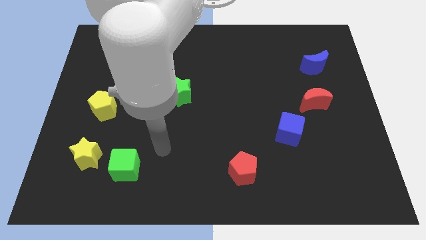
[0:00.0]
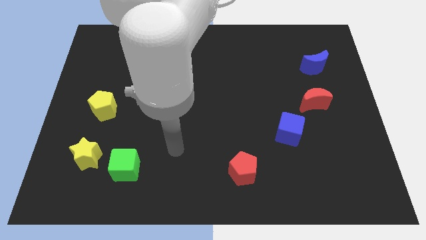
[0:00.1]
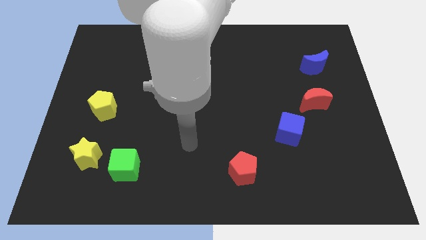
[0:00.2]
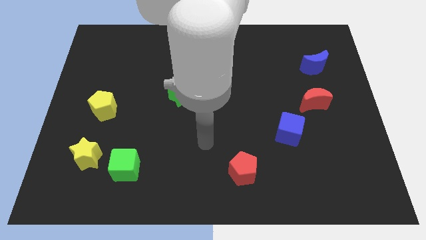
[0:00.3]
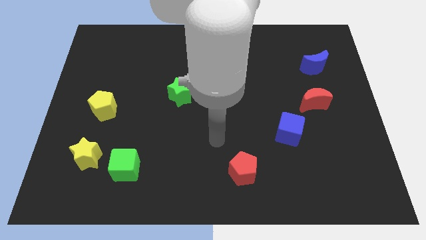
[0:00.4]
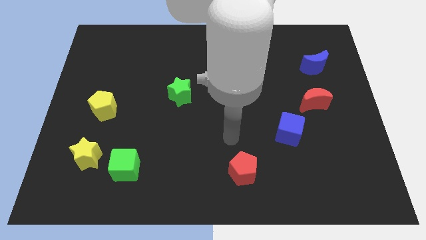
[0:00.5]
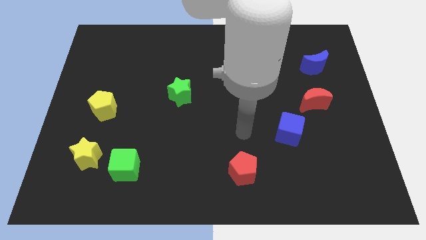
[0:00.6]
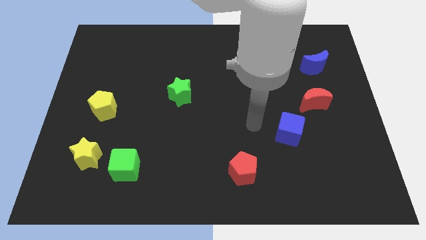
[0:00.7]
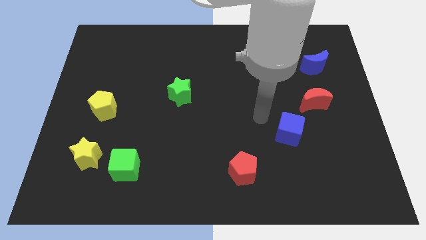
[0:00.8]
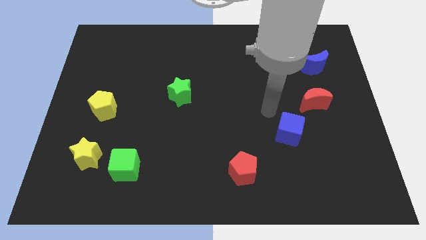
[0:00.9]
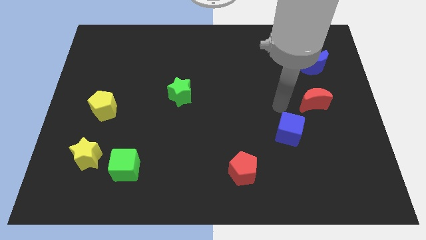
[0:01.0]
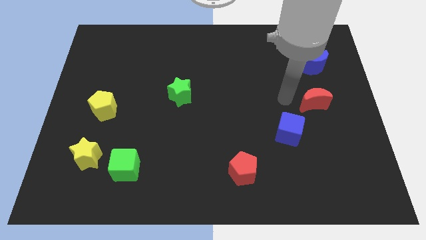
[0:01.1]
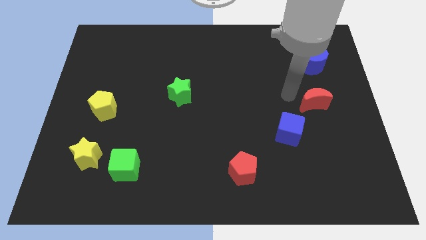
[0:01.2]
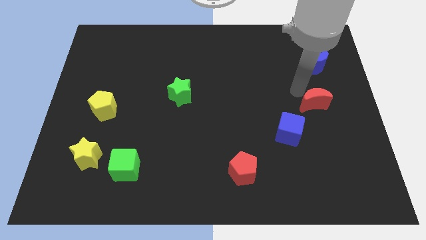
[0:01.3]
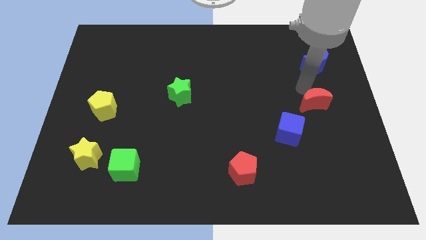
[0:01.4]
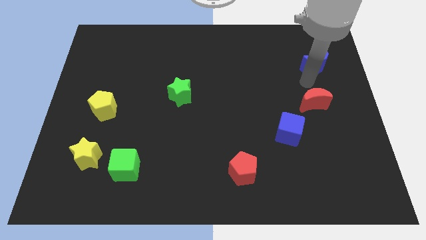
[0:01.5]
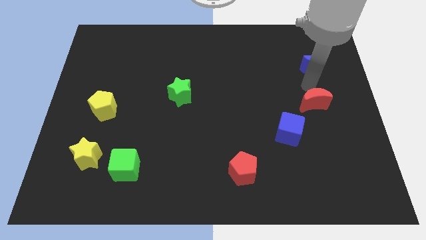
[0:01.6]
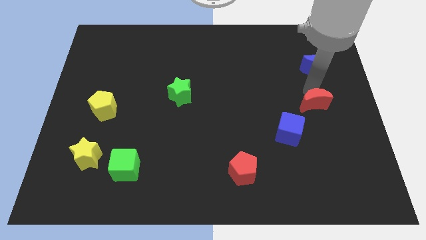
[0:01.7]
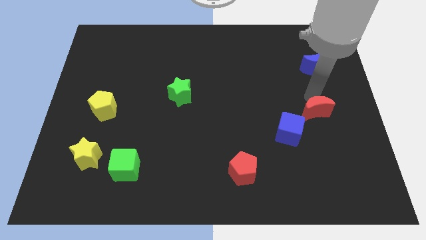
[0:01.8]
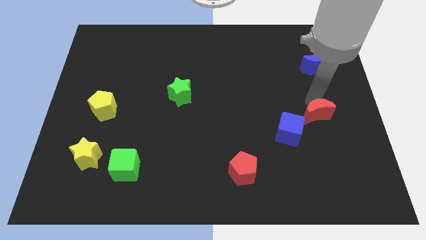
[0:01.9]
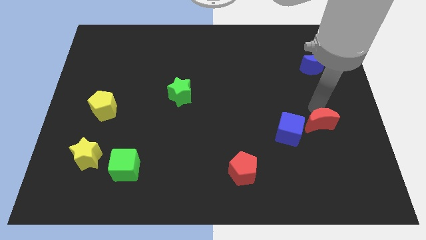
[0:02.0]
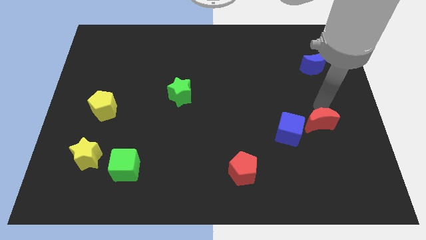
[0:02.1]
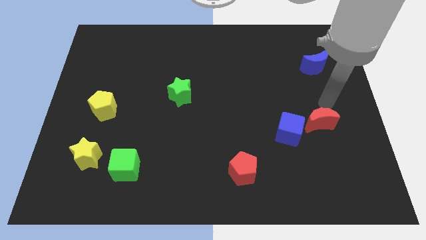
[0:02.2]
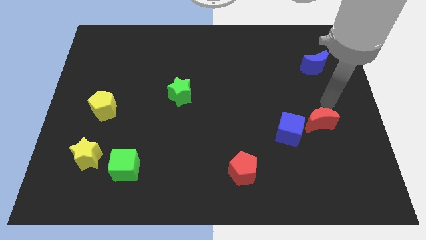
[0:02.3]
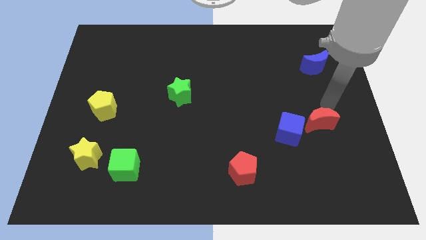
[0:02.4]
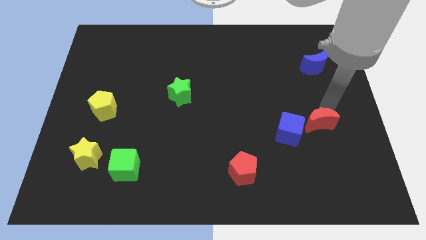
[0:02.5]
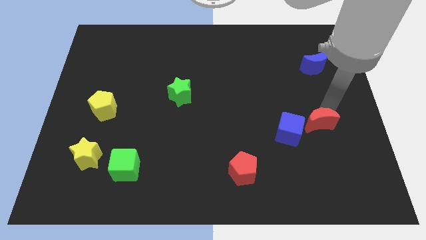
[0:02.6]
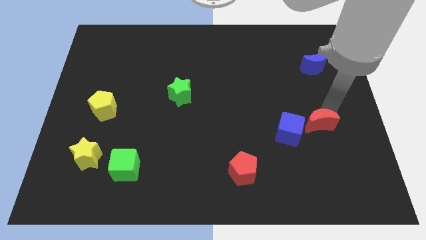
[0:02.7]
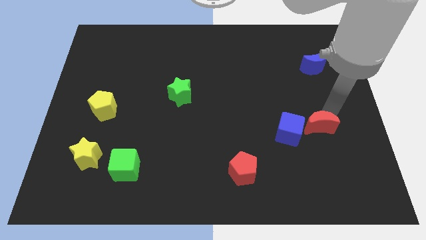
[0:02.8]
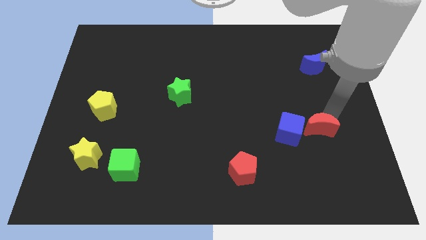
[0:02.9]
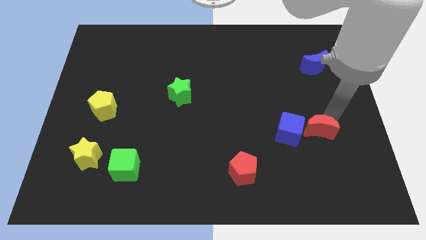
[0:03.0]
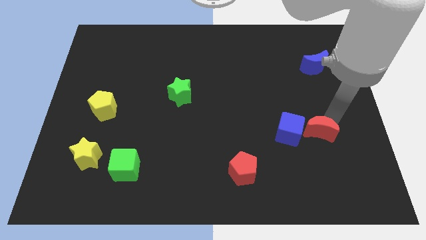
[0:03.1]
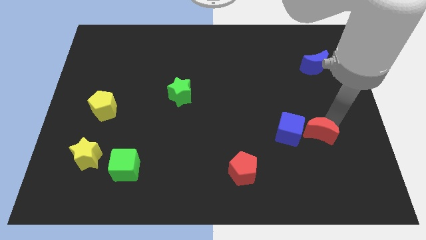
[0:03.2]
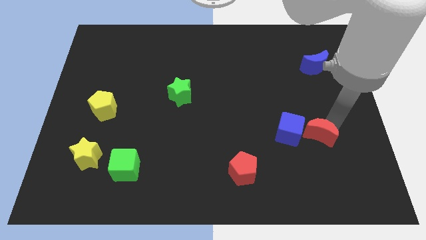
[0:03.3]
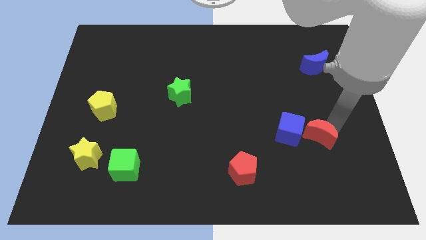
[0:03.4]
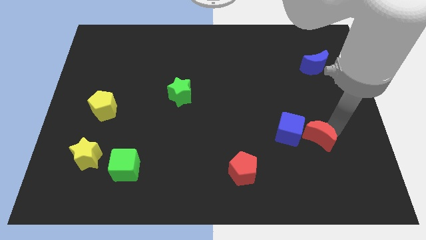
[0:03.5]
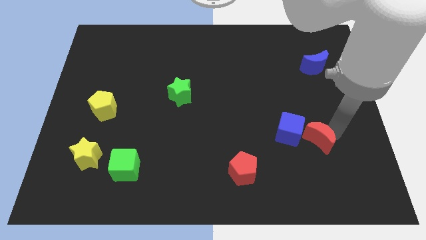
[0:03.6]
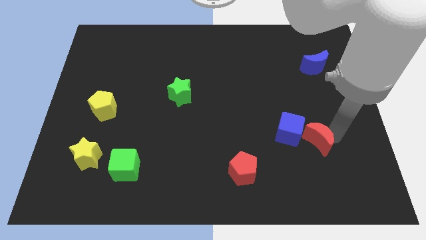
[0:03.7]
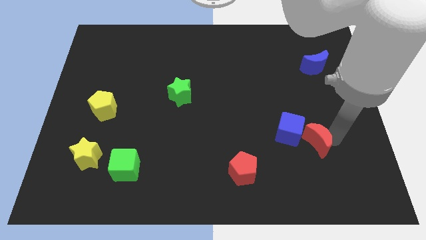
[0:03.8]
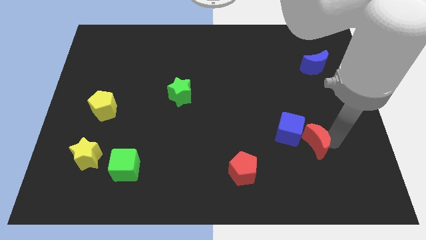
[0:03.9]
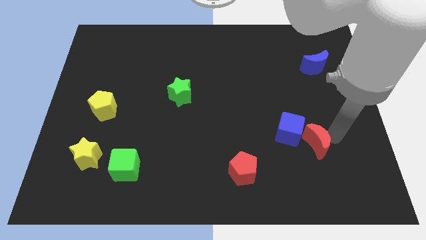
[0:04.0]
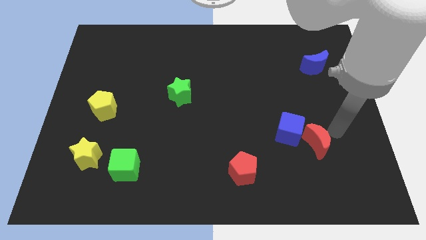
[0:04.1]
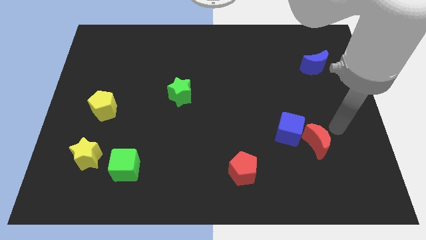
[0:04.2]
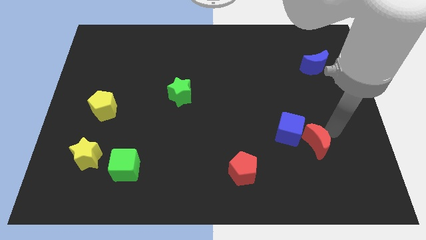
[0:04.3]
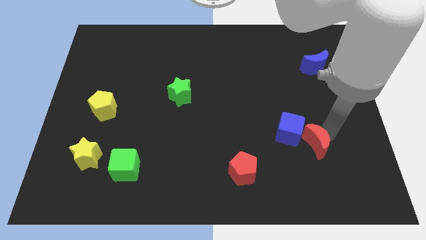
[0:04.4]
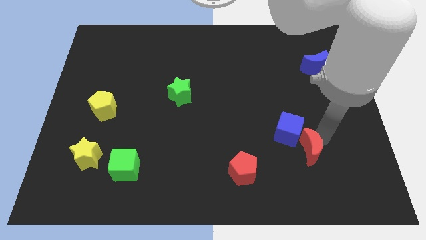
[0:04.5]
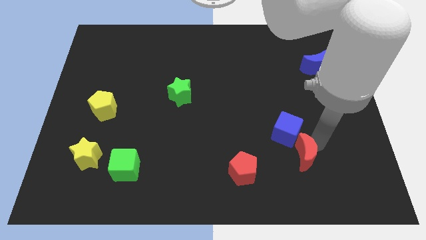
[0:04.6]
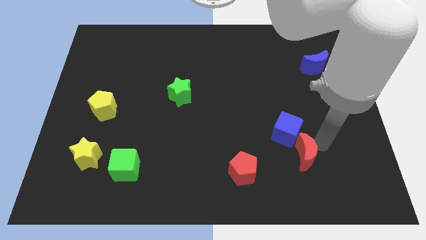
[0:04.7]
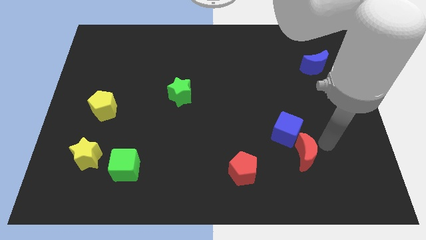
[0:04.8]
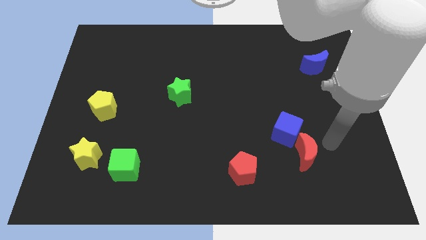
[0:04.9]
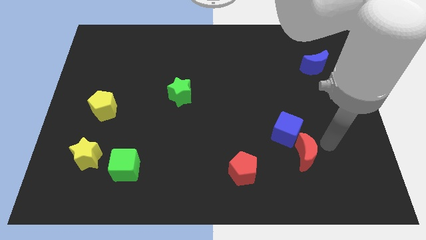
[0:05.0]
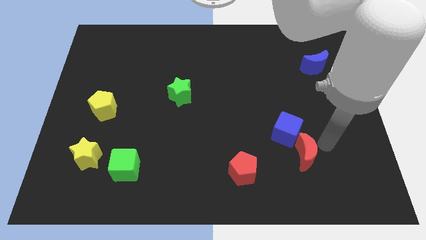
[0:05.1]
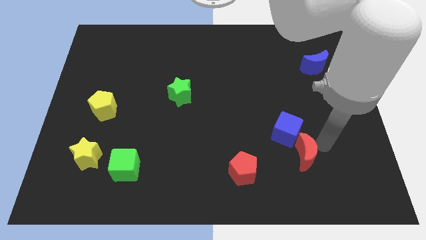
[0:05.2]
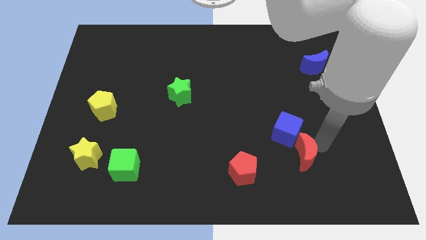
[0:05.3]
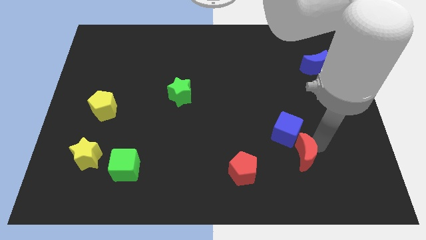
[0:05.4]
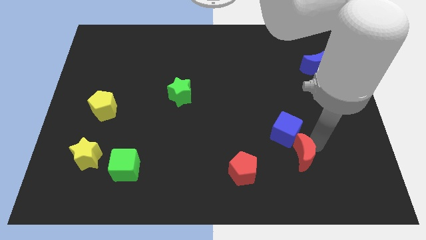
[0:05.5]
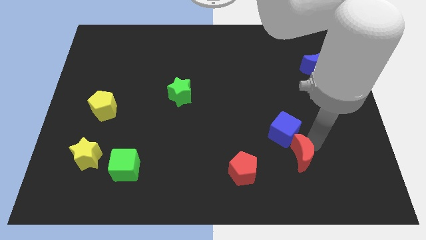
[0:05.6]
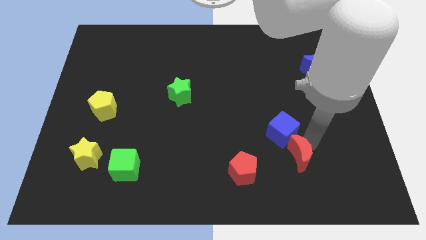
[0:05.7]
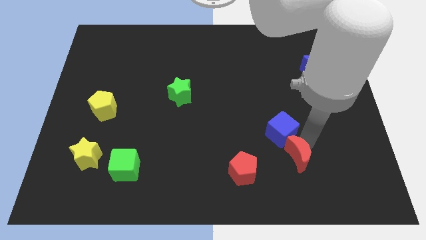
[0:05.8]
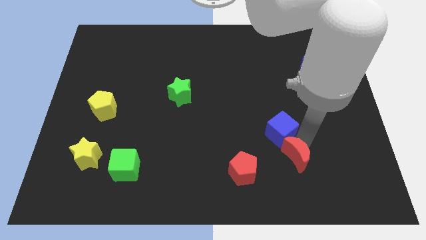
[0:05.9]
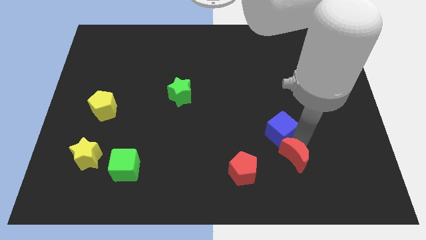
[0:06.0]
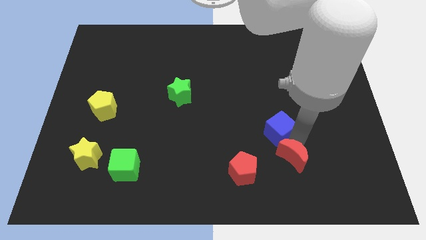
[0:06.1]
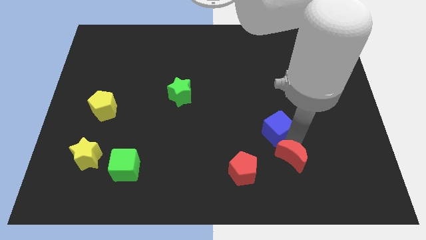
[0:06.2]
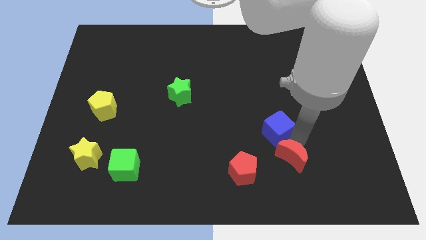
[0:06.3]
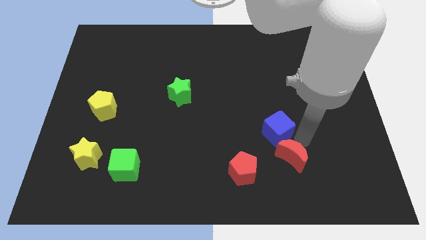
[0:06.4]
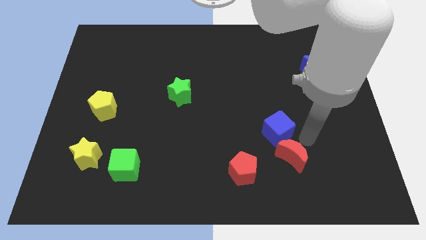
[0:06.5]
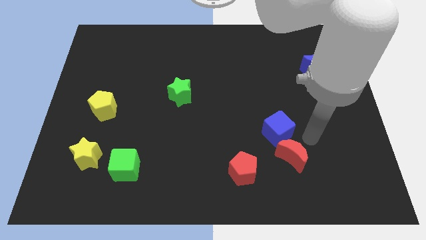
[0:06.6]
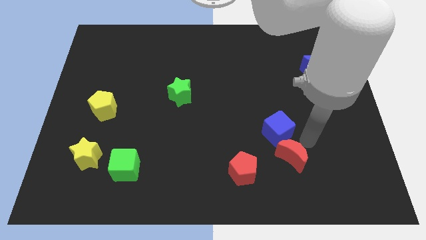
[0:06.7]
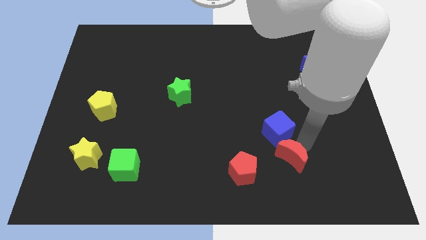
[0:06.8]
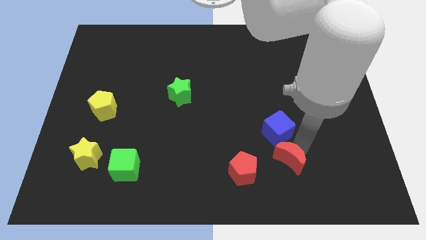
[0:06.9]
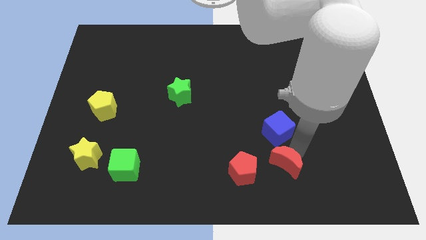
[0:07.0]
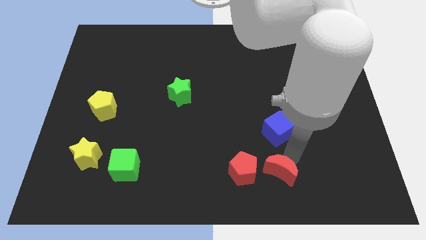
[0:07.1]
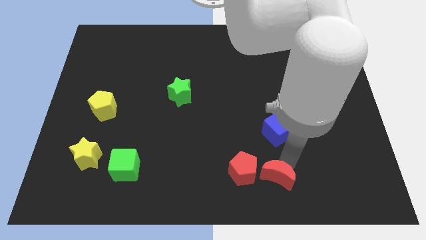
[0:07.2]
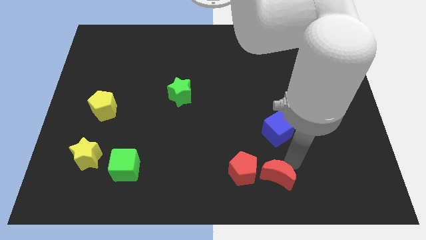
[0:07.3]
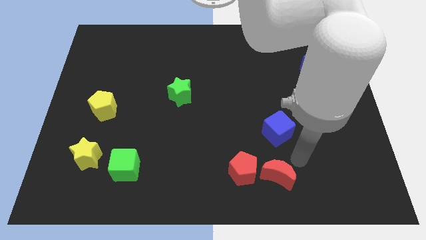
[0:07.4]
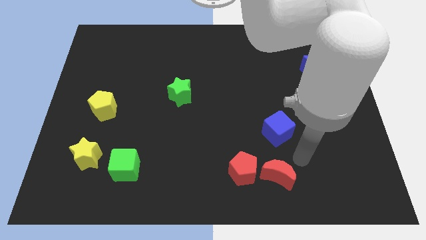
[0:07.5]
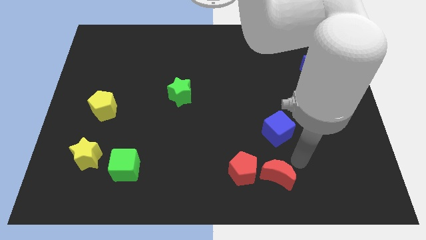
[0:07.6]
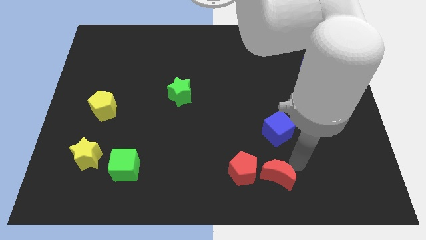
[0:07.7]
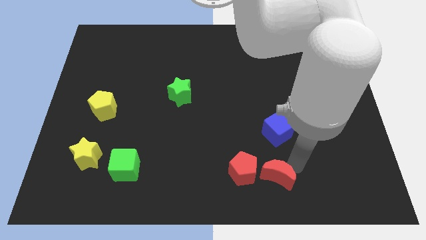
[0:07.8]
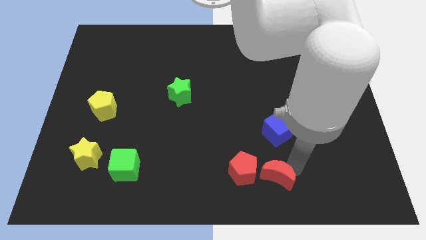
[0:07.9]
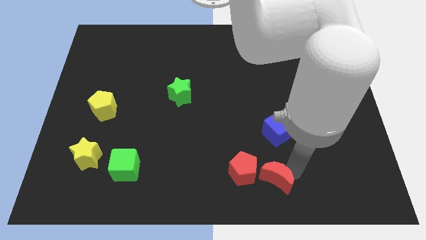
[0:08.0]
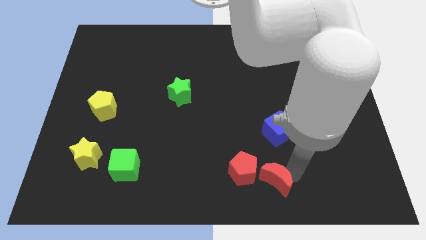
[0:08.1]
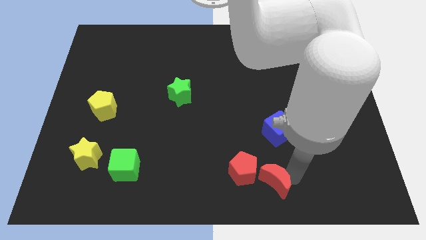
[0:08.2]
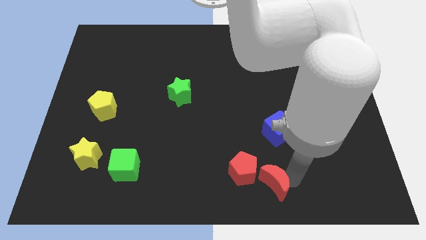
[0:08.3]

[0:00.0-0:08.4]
slide the red moon to the bottom side
